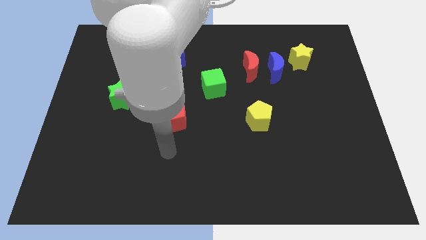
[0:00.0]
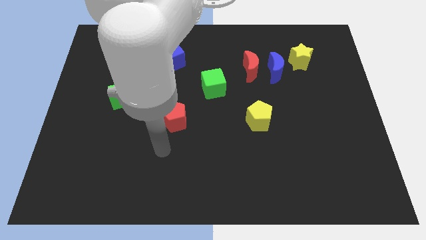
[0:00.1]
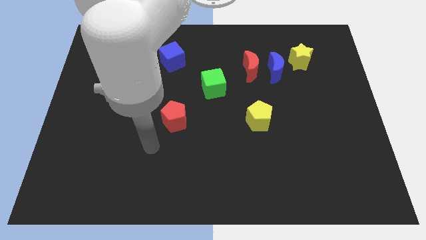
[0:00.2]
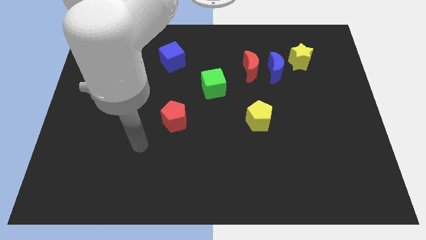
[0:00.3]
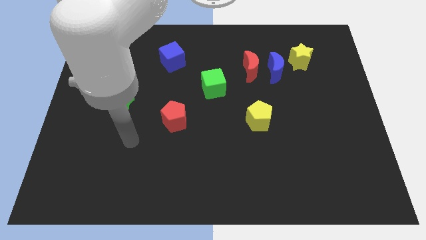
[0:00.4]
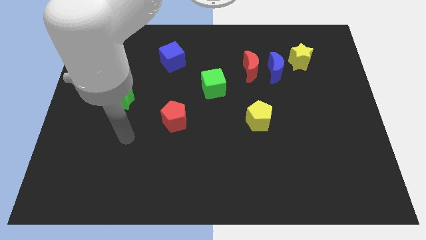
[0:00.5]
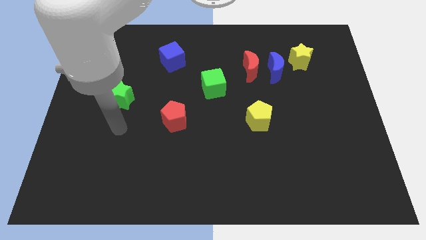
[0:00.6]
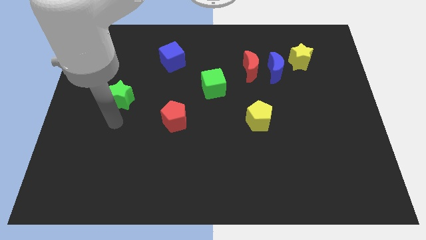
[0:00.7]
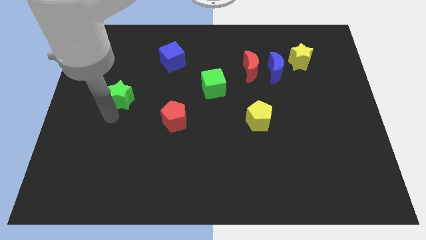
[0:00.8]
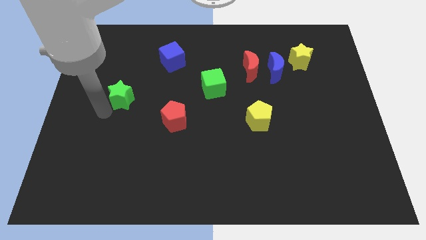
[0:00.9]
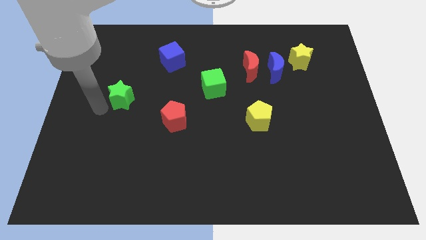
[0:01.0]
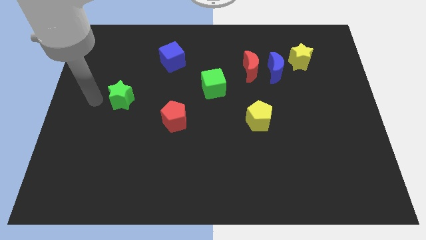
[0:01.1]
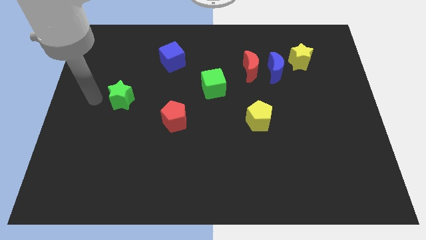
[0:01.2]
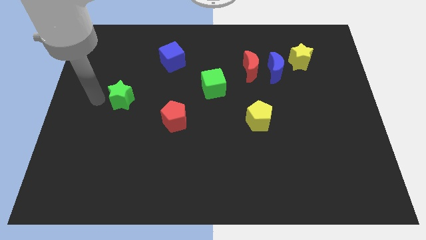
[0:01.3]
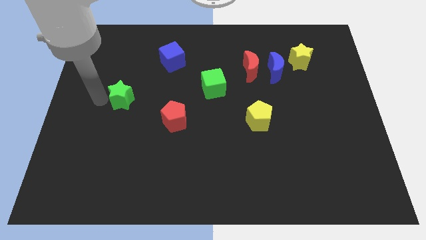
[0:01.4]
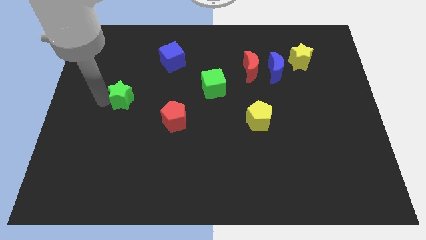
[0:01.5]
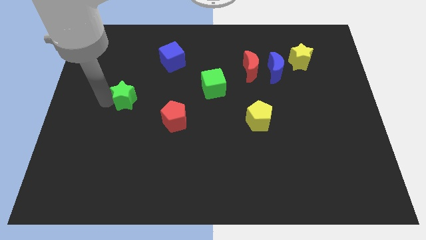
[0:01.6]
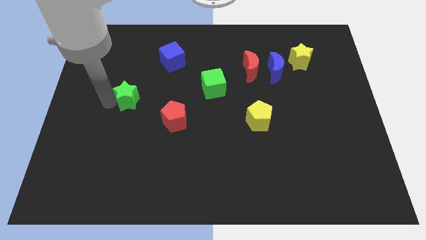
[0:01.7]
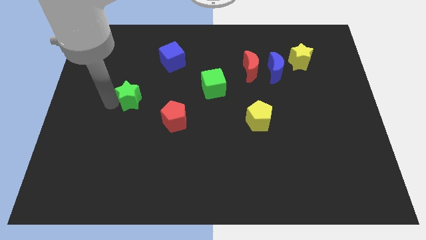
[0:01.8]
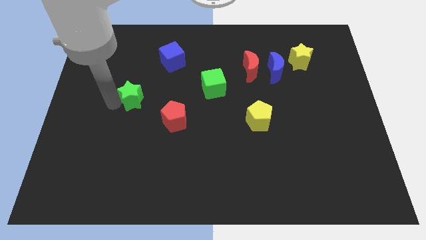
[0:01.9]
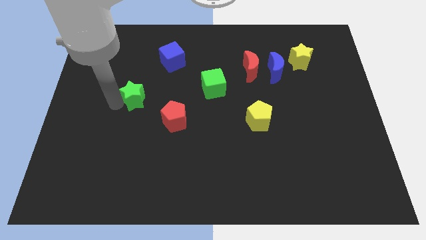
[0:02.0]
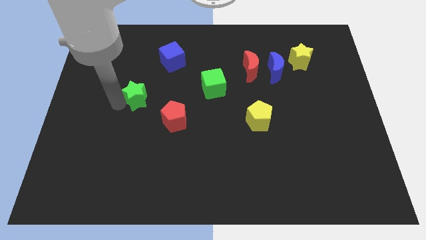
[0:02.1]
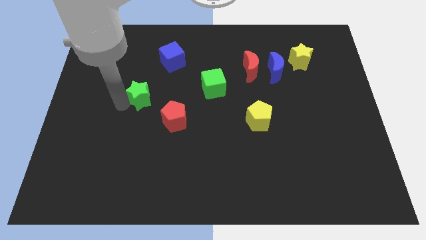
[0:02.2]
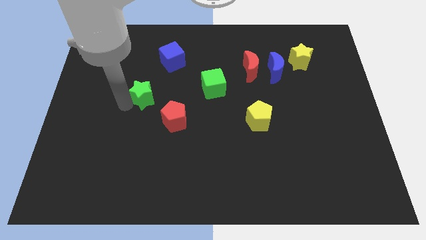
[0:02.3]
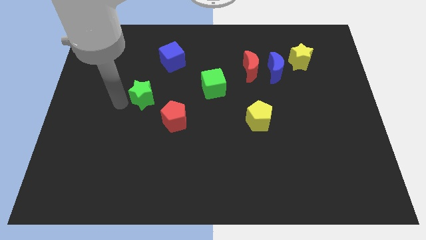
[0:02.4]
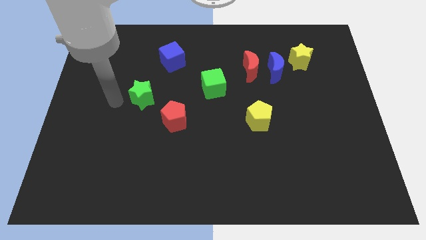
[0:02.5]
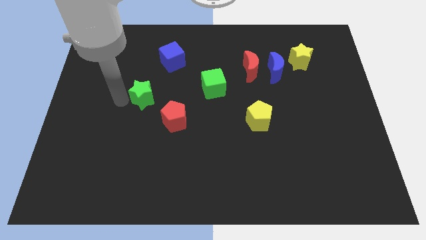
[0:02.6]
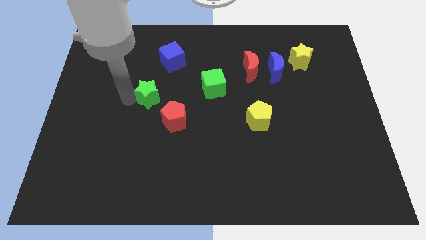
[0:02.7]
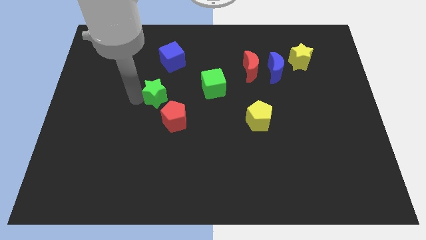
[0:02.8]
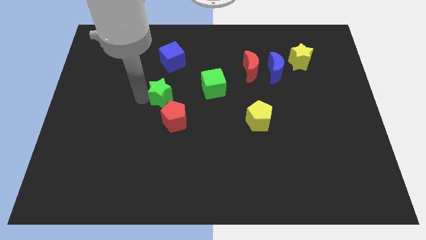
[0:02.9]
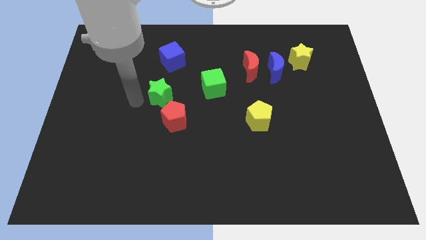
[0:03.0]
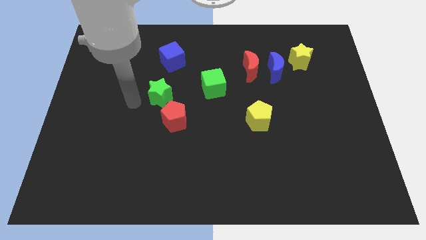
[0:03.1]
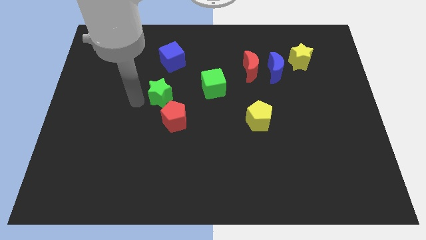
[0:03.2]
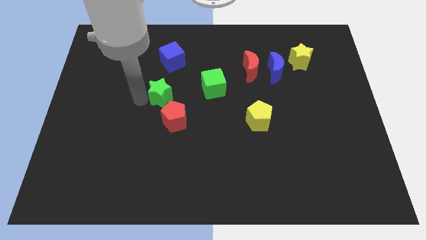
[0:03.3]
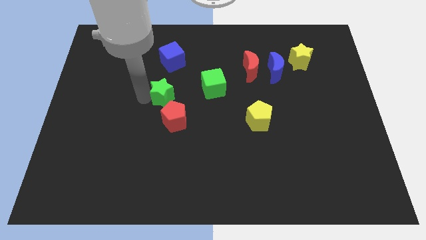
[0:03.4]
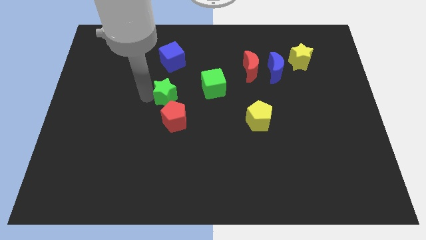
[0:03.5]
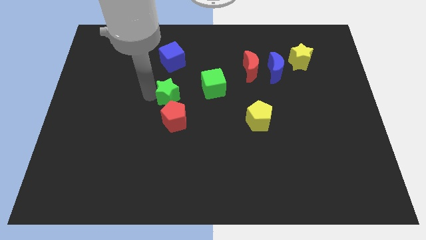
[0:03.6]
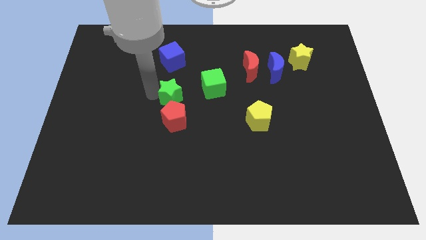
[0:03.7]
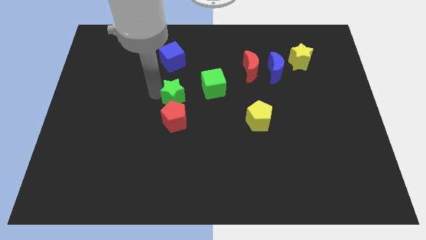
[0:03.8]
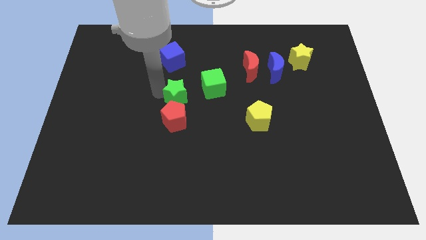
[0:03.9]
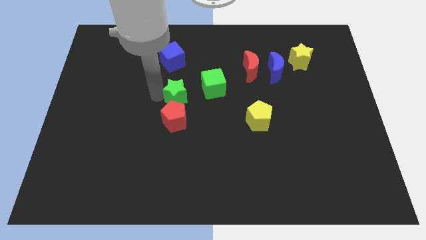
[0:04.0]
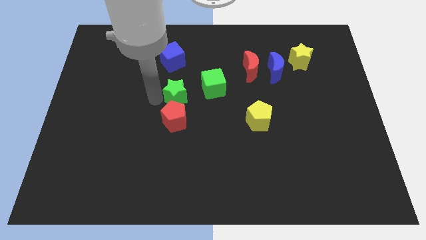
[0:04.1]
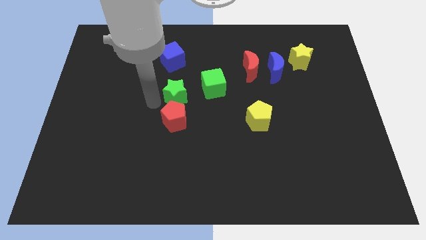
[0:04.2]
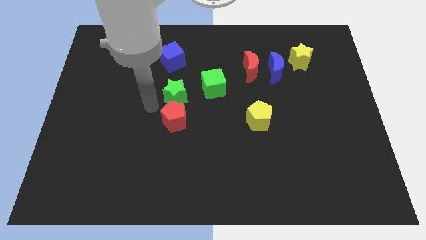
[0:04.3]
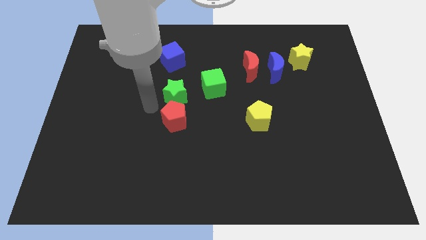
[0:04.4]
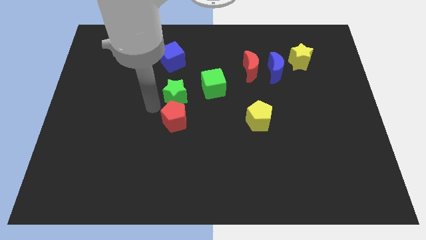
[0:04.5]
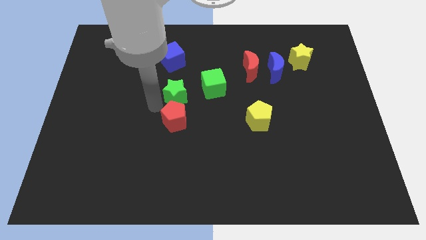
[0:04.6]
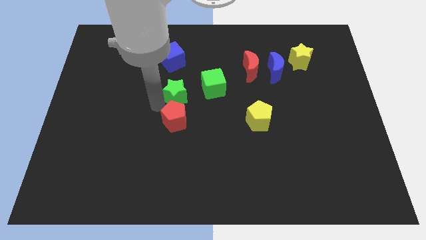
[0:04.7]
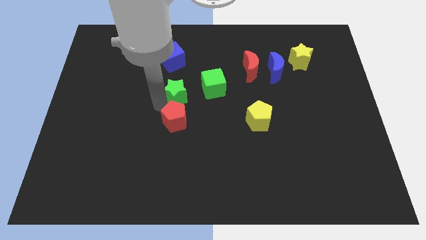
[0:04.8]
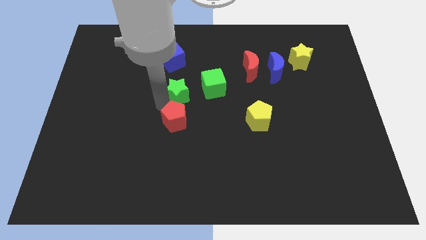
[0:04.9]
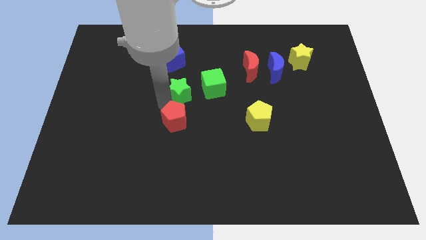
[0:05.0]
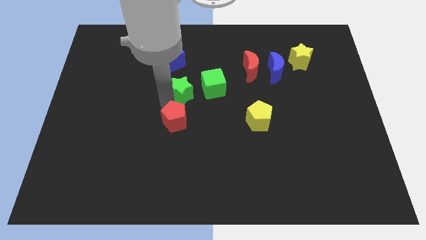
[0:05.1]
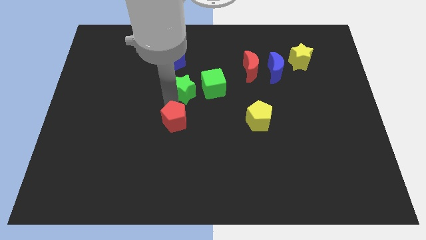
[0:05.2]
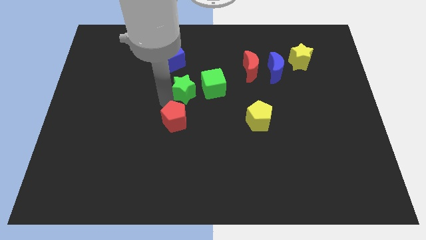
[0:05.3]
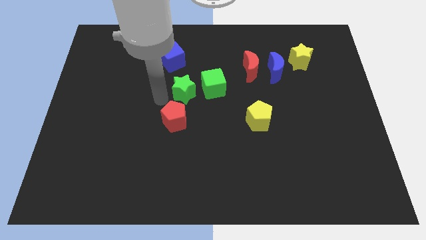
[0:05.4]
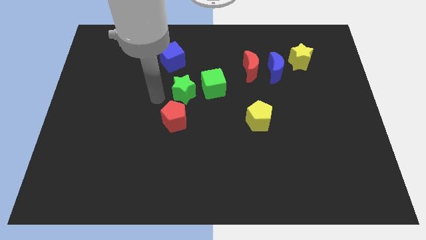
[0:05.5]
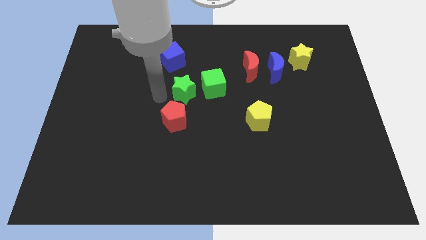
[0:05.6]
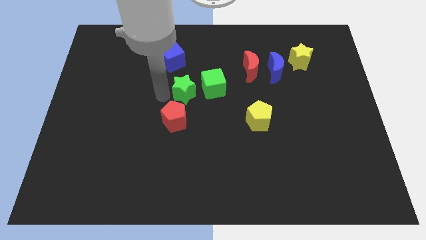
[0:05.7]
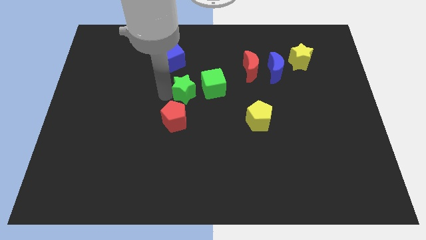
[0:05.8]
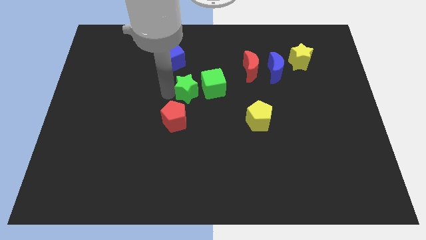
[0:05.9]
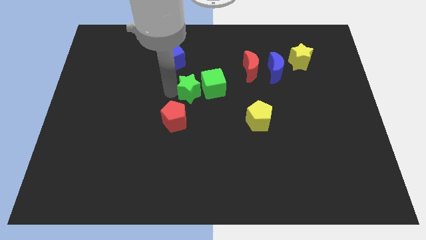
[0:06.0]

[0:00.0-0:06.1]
move the green star towards the green cube

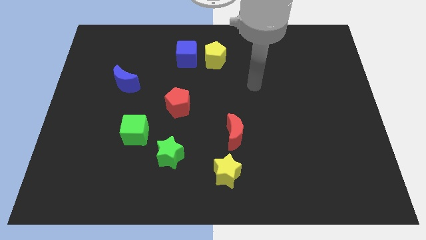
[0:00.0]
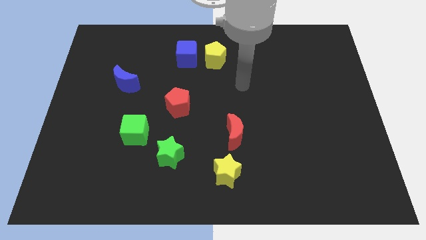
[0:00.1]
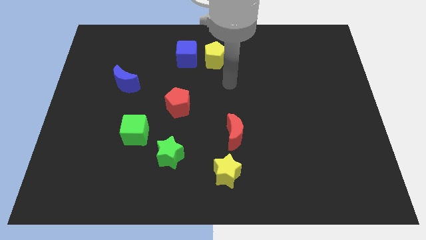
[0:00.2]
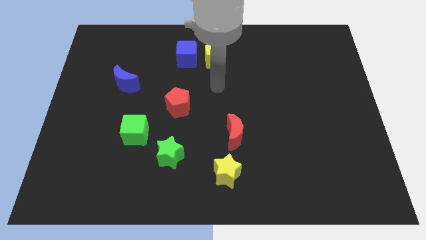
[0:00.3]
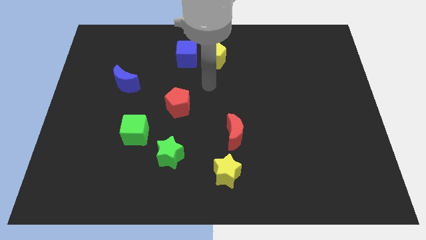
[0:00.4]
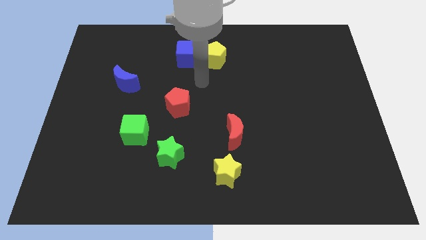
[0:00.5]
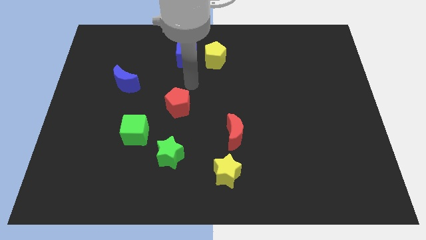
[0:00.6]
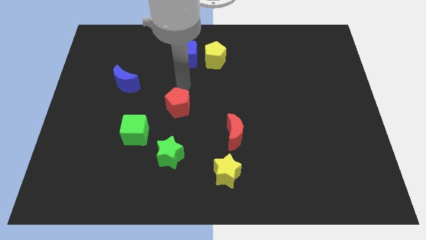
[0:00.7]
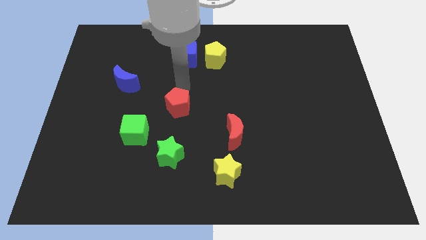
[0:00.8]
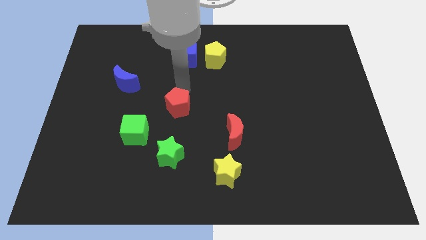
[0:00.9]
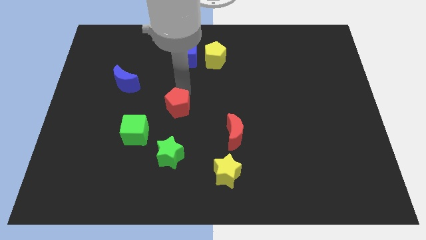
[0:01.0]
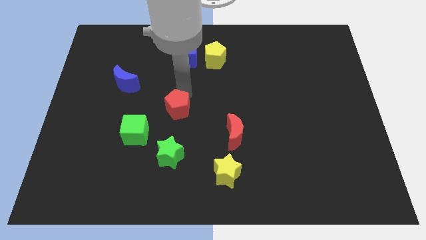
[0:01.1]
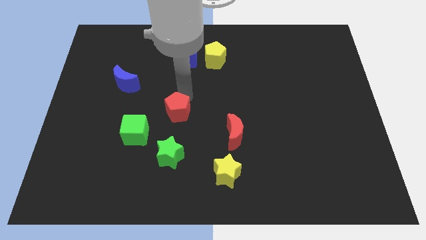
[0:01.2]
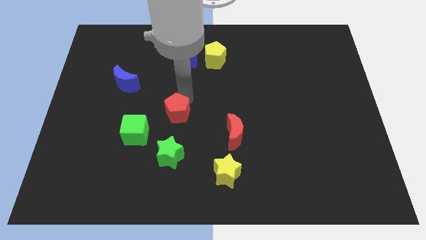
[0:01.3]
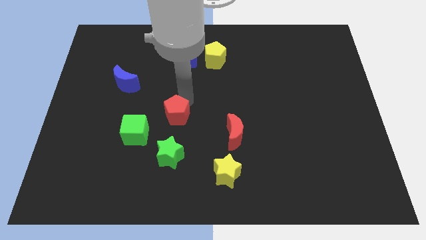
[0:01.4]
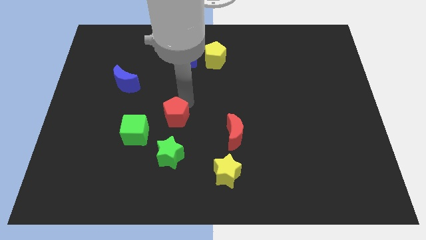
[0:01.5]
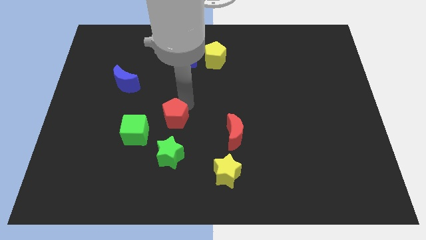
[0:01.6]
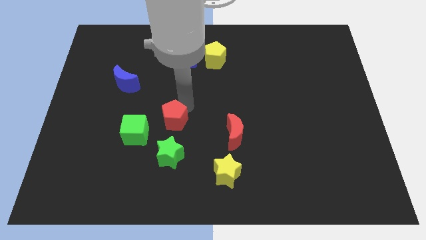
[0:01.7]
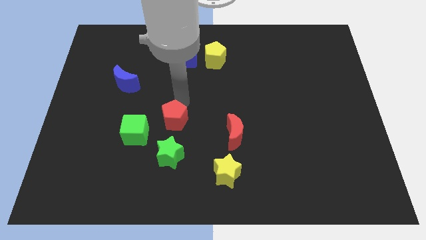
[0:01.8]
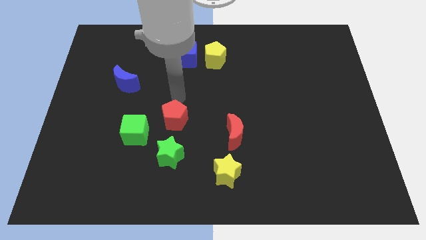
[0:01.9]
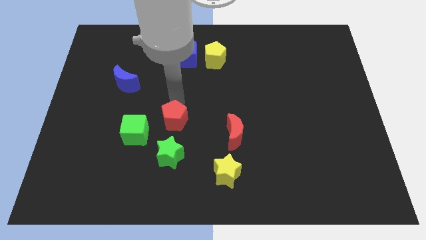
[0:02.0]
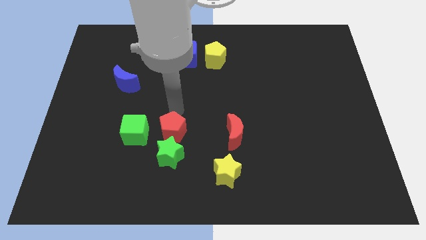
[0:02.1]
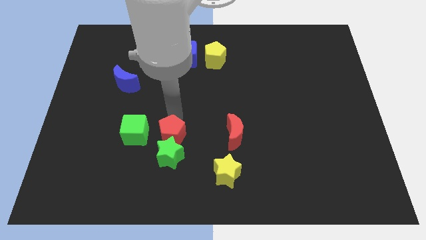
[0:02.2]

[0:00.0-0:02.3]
slide the red pentagon next to the green star
